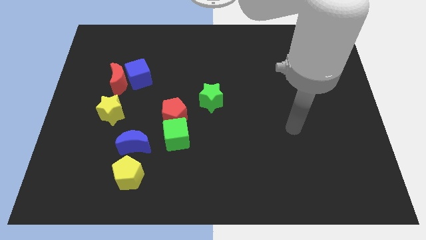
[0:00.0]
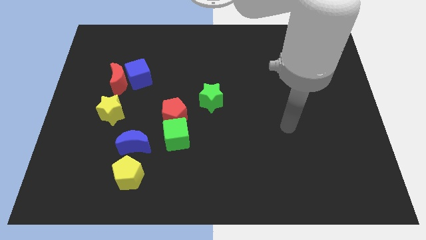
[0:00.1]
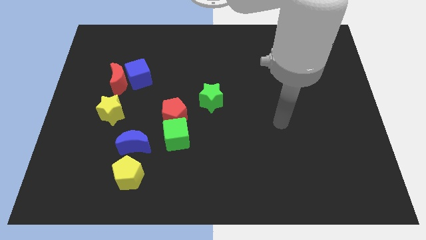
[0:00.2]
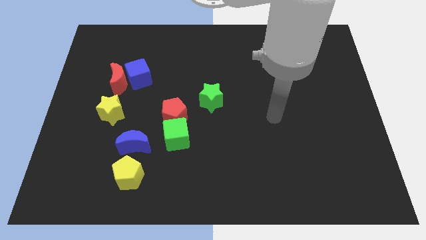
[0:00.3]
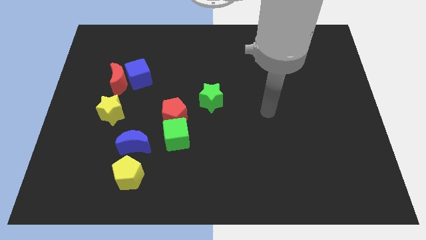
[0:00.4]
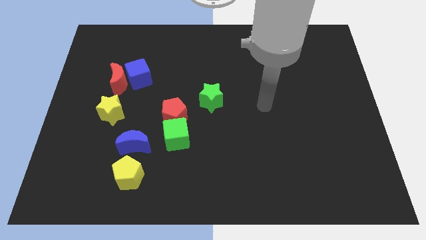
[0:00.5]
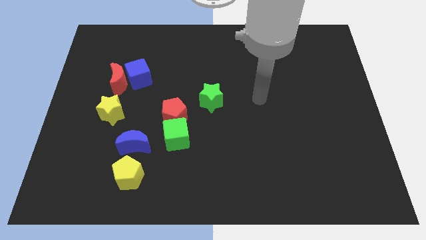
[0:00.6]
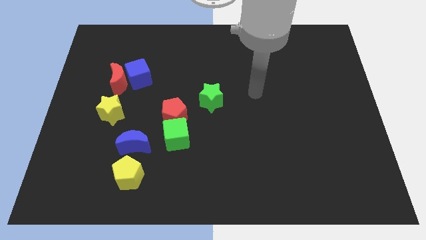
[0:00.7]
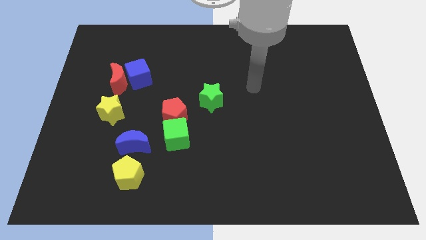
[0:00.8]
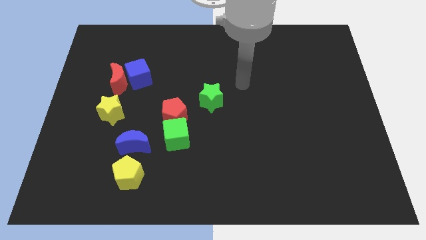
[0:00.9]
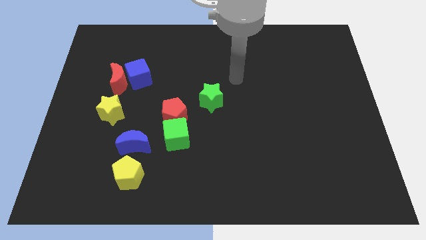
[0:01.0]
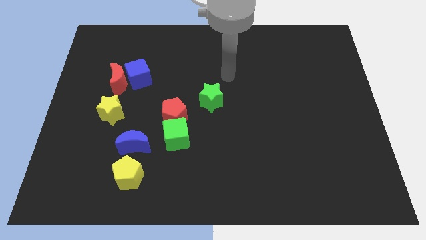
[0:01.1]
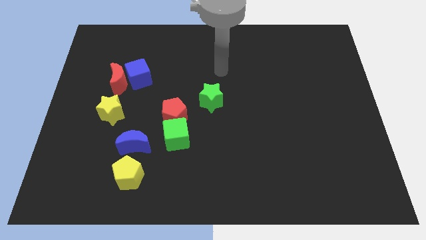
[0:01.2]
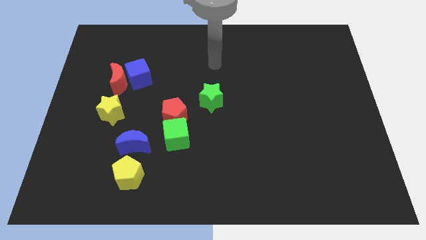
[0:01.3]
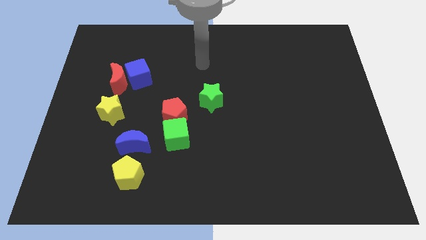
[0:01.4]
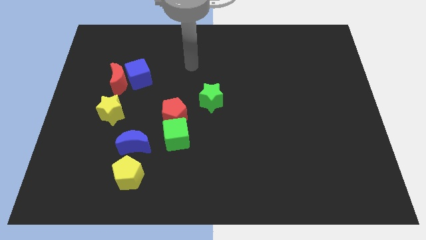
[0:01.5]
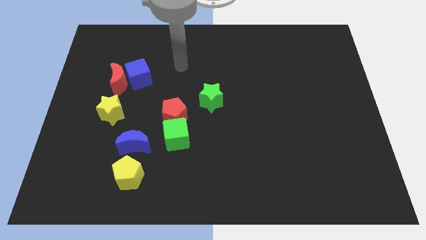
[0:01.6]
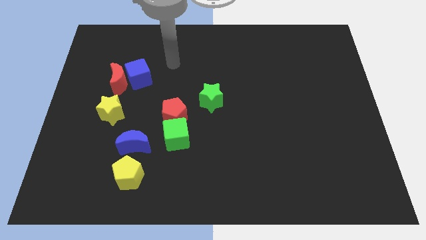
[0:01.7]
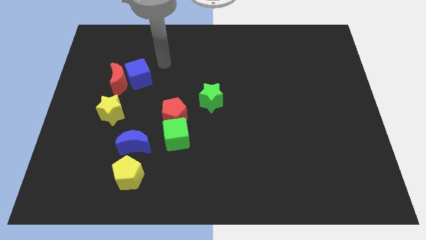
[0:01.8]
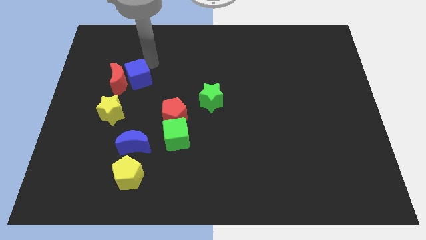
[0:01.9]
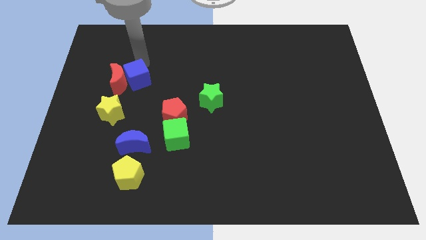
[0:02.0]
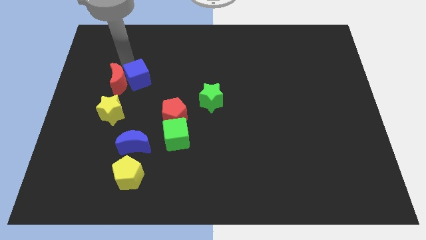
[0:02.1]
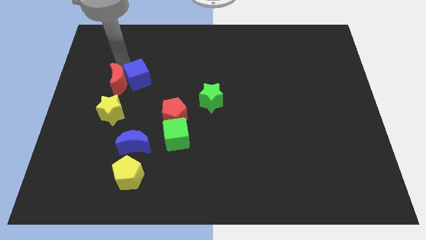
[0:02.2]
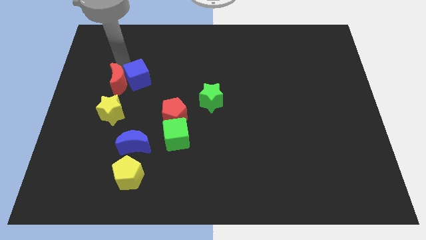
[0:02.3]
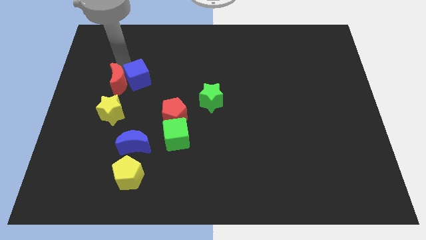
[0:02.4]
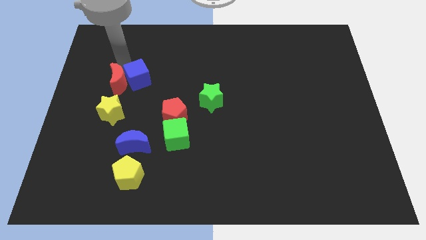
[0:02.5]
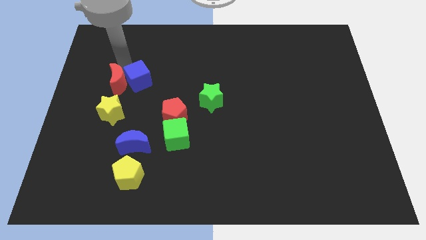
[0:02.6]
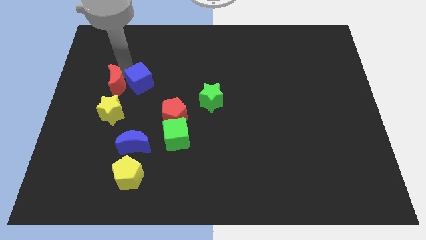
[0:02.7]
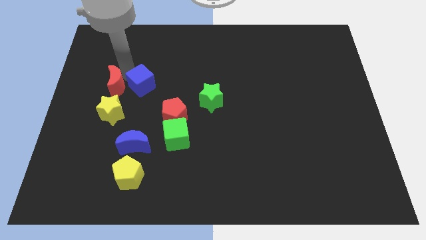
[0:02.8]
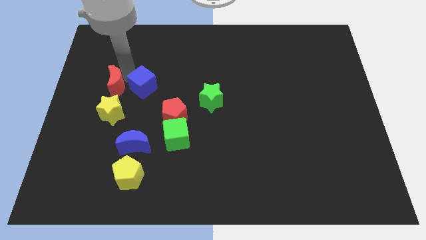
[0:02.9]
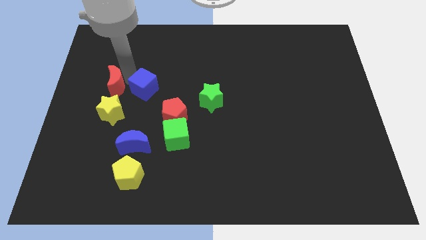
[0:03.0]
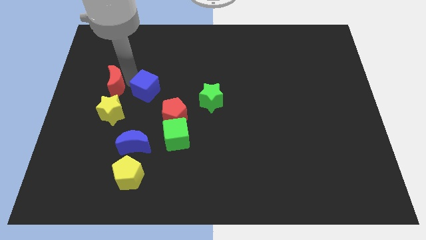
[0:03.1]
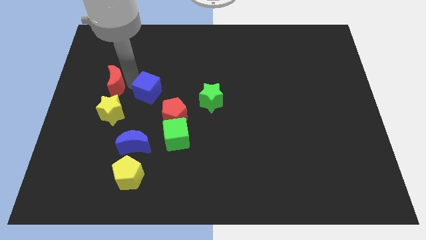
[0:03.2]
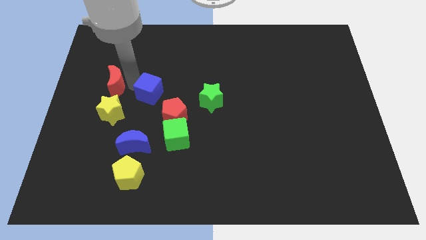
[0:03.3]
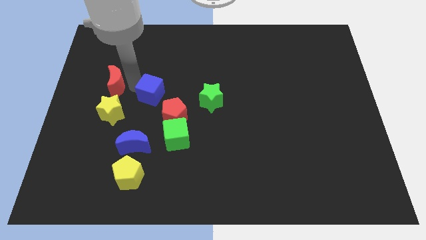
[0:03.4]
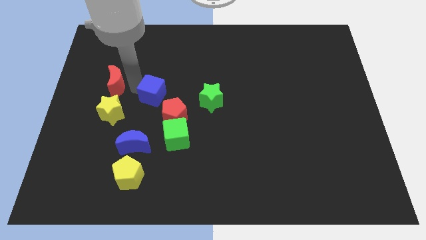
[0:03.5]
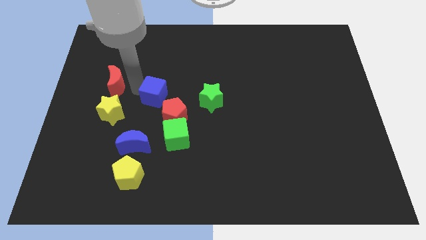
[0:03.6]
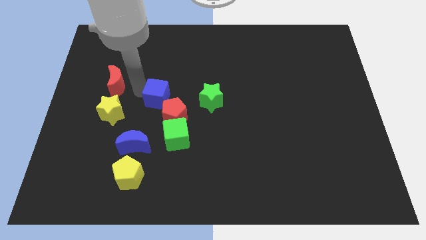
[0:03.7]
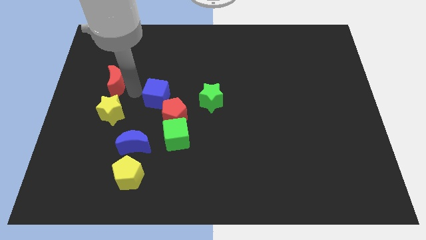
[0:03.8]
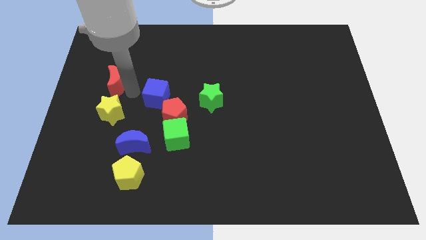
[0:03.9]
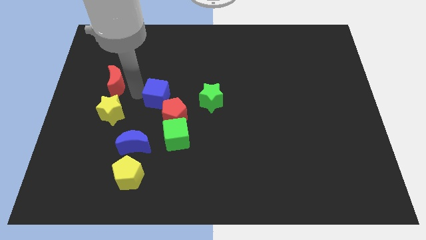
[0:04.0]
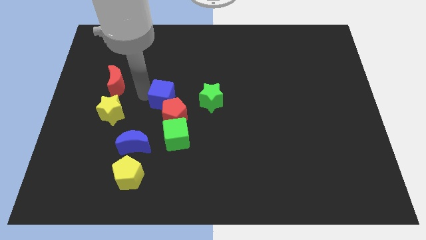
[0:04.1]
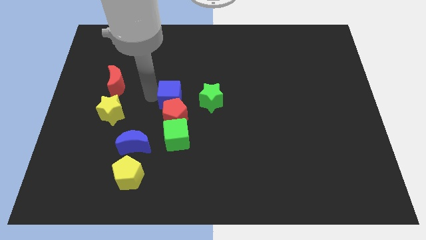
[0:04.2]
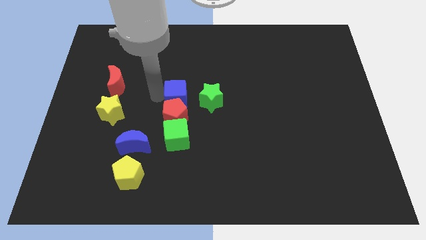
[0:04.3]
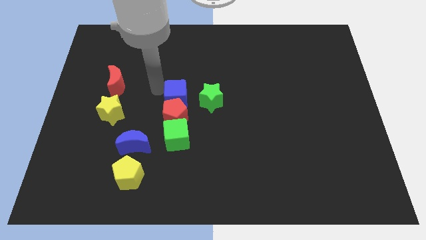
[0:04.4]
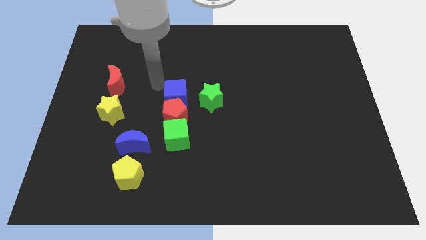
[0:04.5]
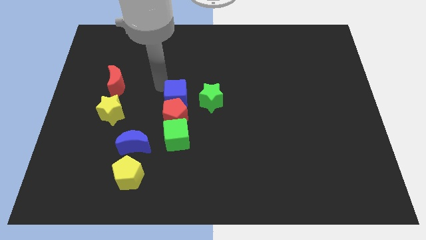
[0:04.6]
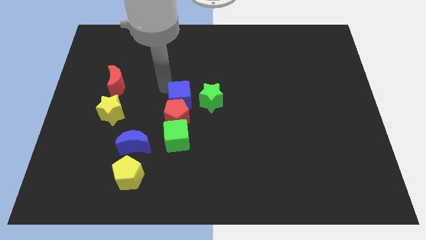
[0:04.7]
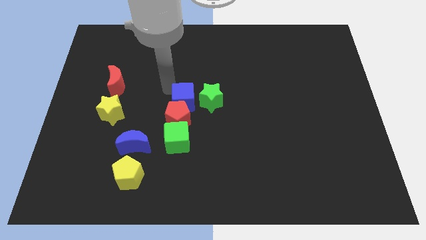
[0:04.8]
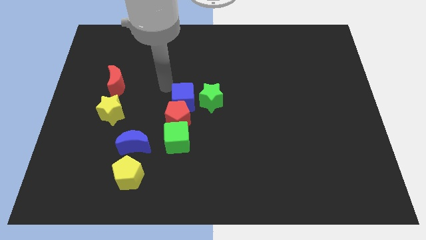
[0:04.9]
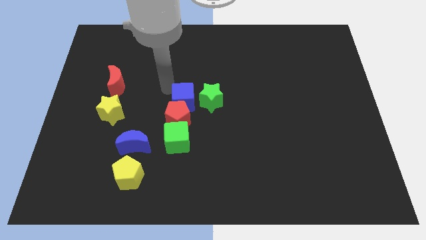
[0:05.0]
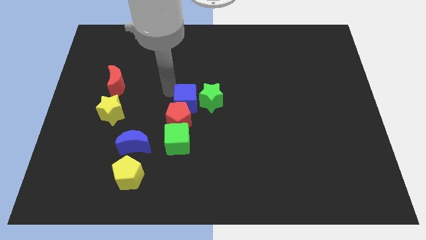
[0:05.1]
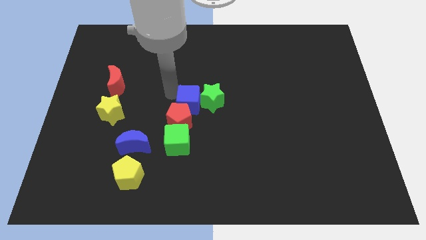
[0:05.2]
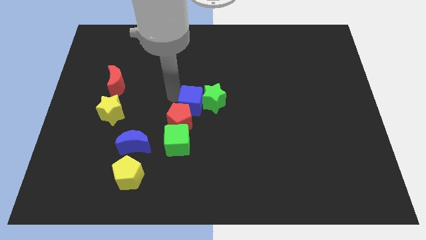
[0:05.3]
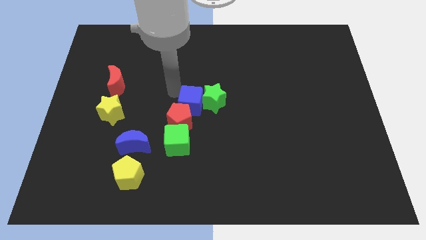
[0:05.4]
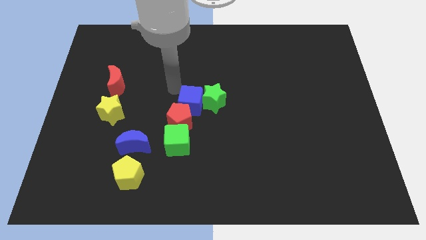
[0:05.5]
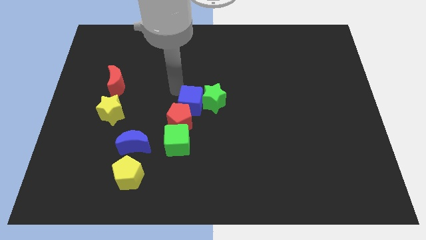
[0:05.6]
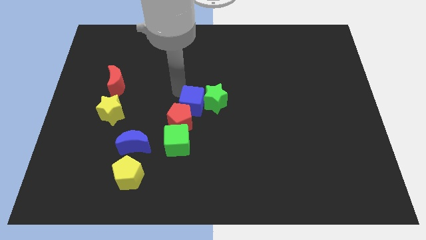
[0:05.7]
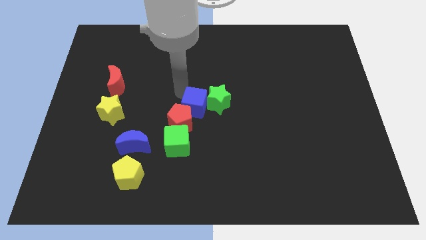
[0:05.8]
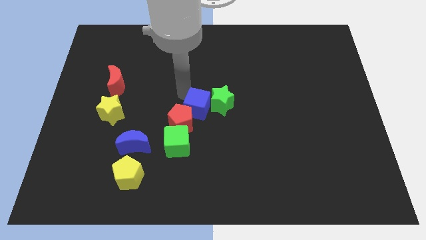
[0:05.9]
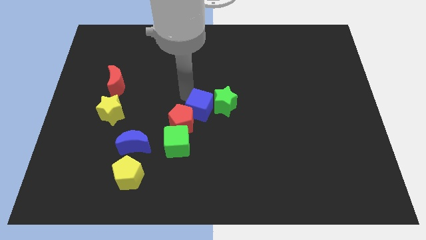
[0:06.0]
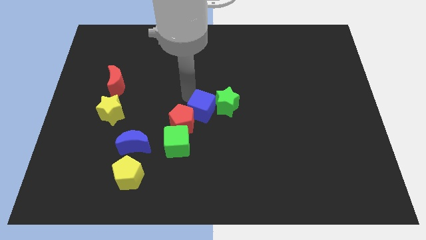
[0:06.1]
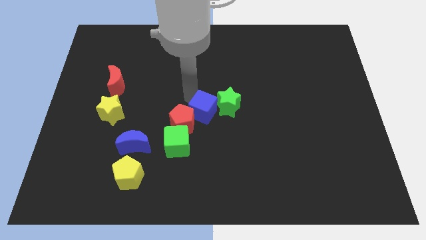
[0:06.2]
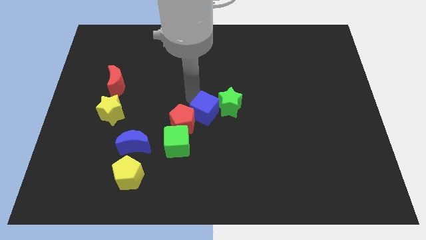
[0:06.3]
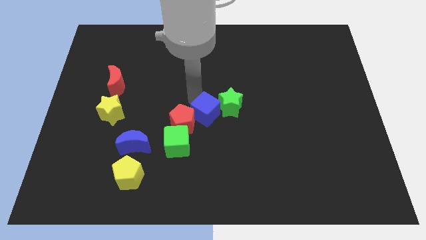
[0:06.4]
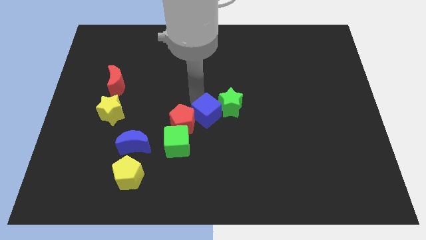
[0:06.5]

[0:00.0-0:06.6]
slide the blue cube downwards and then to the right

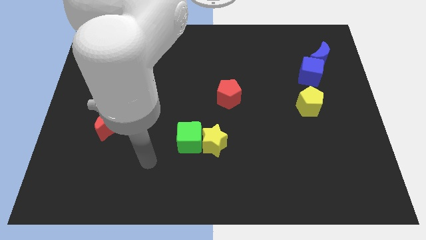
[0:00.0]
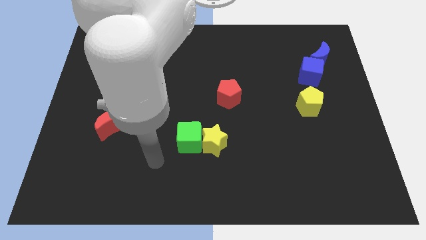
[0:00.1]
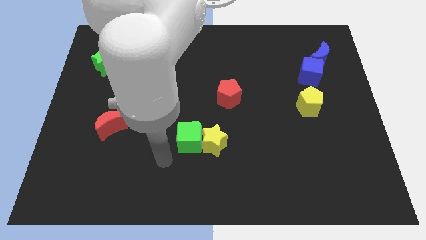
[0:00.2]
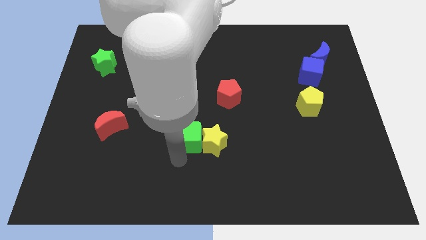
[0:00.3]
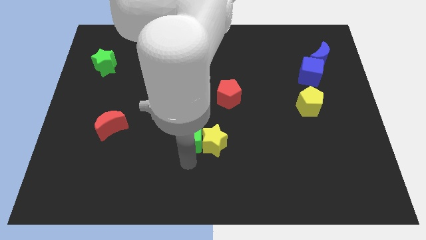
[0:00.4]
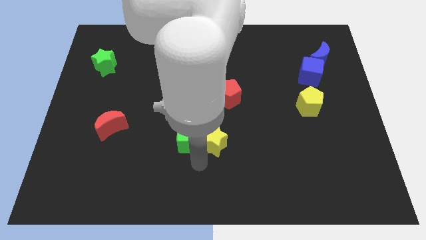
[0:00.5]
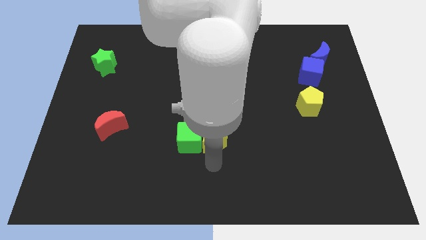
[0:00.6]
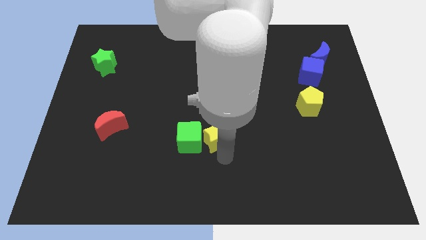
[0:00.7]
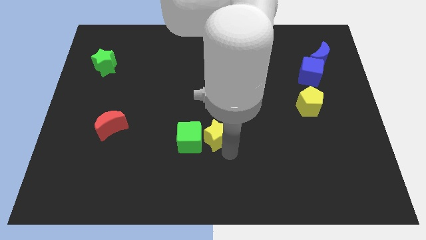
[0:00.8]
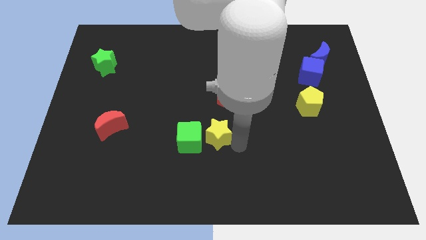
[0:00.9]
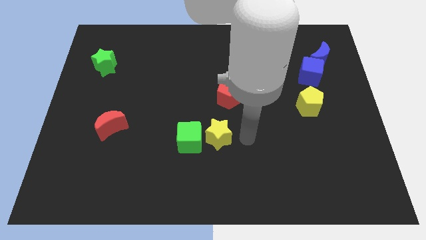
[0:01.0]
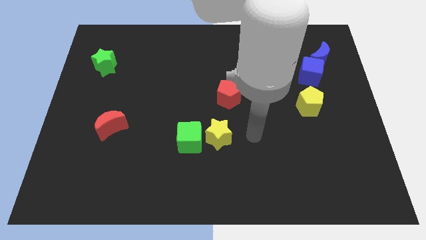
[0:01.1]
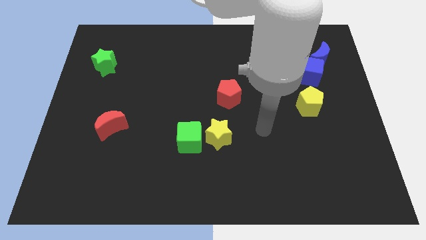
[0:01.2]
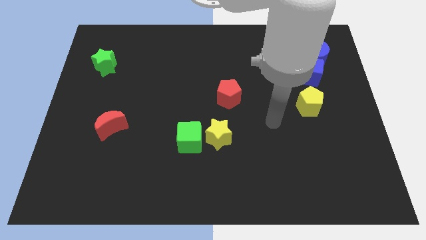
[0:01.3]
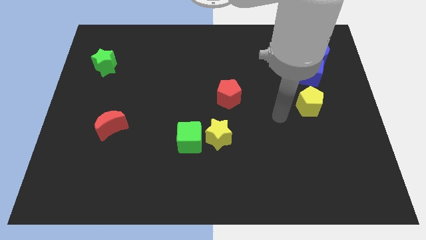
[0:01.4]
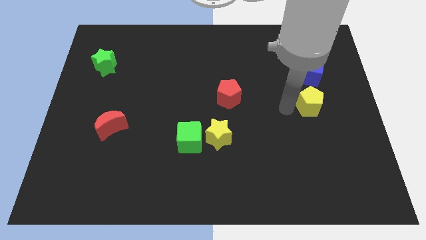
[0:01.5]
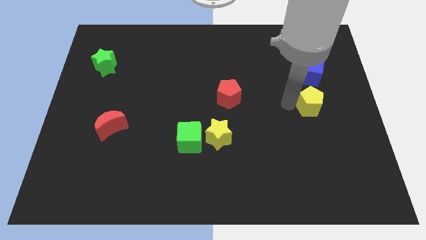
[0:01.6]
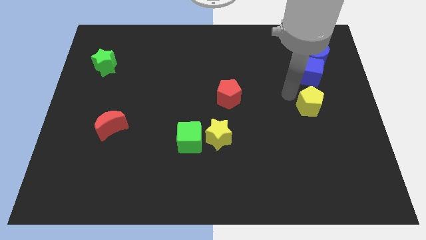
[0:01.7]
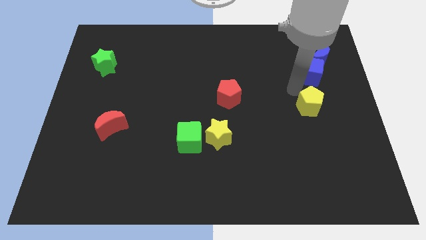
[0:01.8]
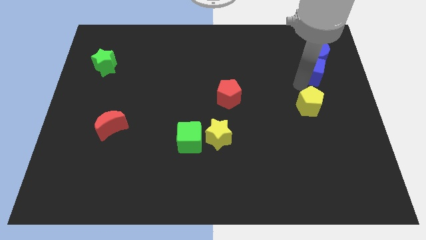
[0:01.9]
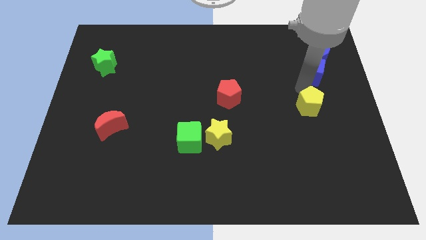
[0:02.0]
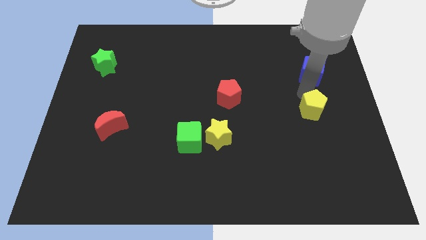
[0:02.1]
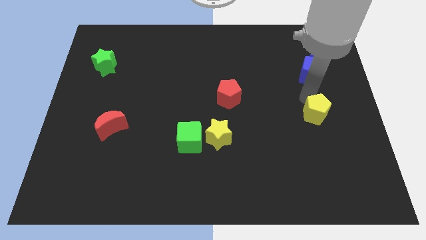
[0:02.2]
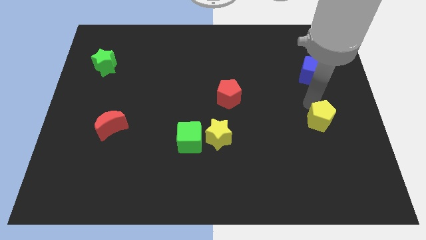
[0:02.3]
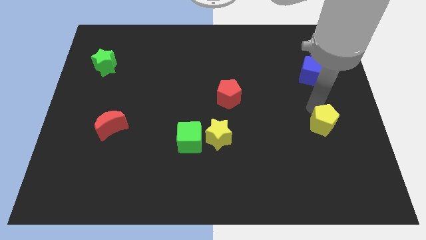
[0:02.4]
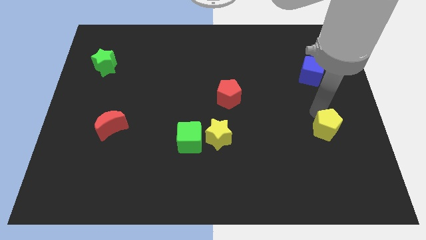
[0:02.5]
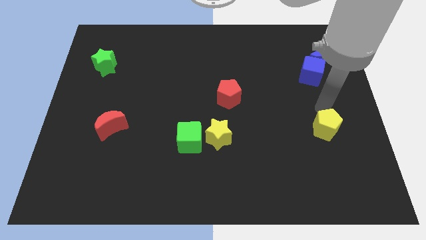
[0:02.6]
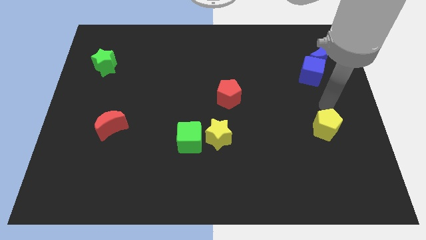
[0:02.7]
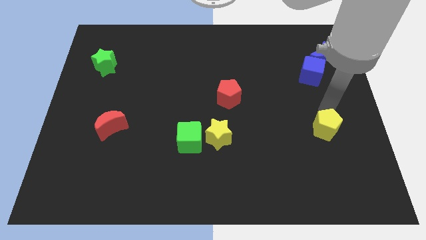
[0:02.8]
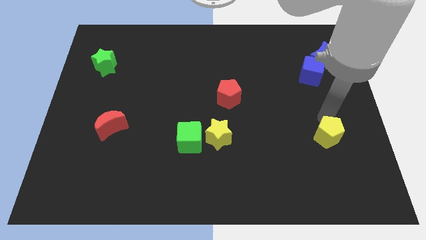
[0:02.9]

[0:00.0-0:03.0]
slide the yellow pentagon a little bit downwards
